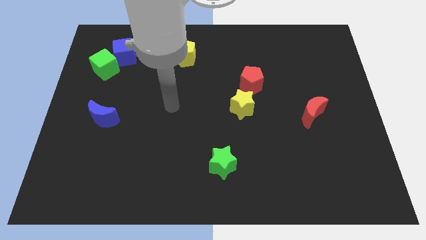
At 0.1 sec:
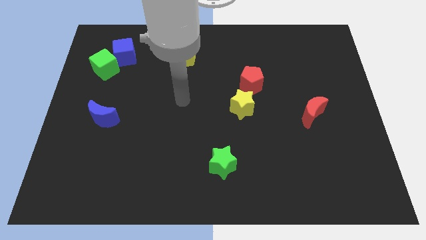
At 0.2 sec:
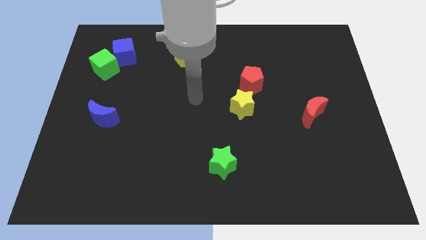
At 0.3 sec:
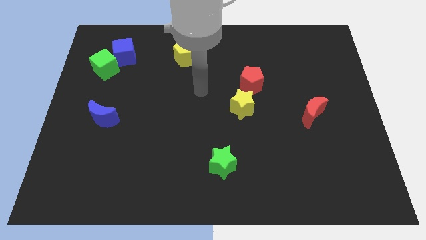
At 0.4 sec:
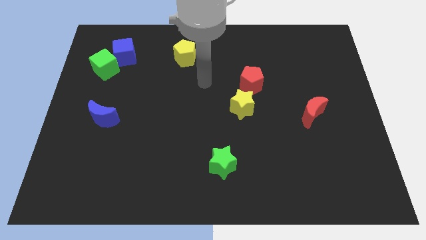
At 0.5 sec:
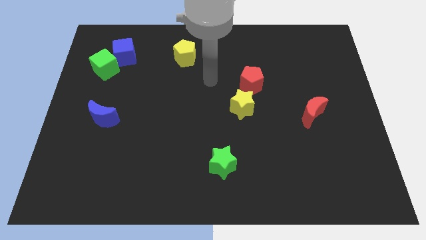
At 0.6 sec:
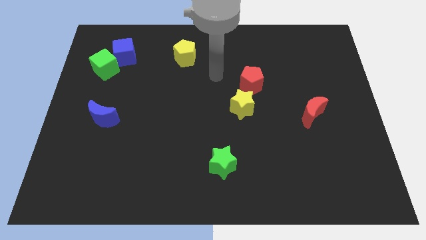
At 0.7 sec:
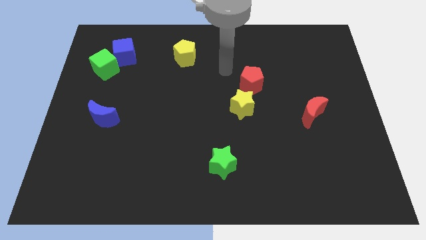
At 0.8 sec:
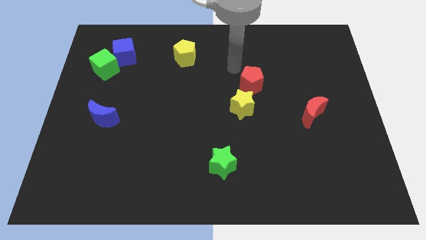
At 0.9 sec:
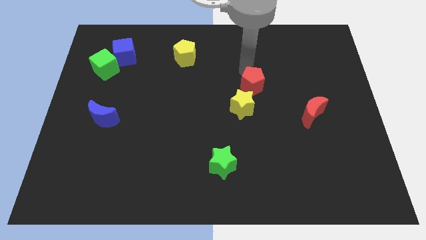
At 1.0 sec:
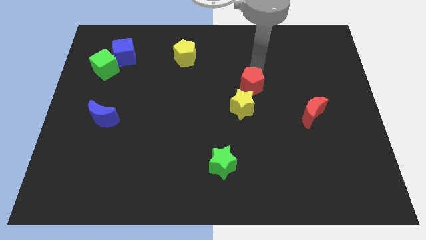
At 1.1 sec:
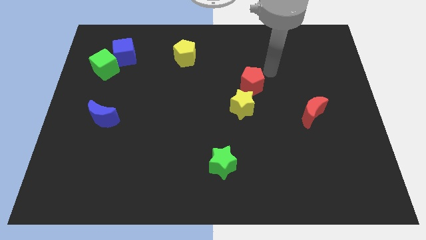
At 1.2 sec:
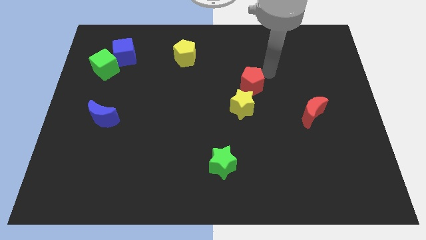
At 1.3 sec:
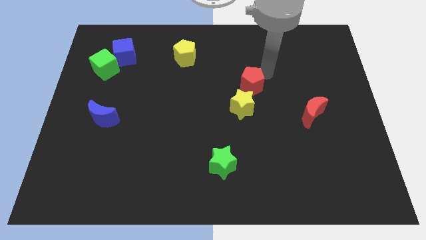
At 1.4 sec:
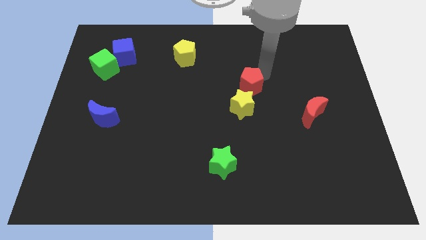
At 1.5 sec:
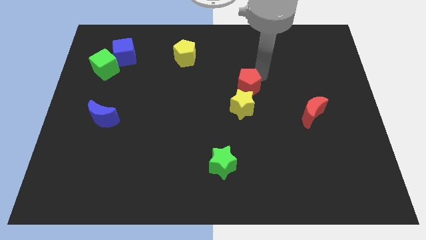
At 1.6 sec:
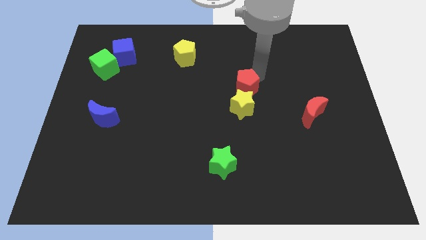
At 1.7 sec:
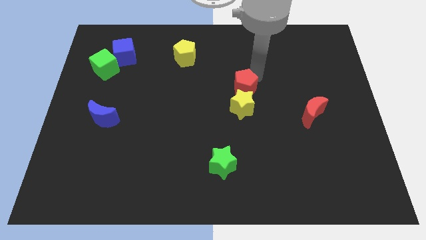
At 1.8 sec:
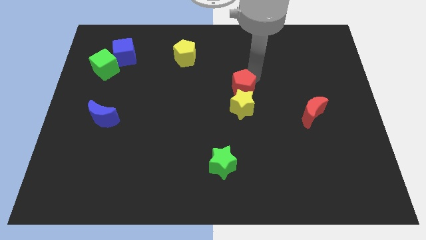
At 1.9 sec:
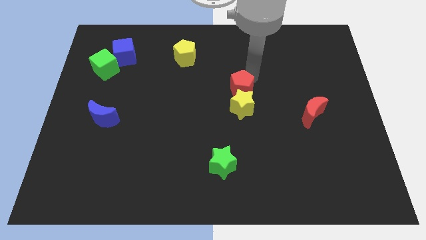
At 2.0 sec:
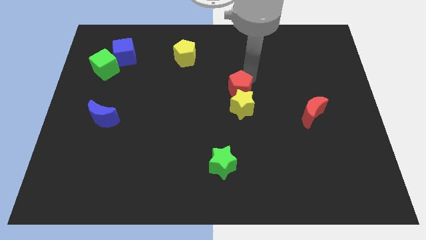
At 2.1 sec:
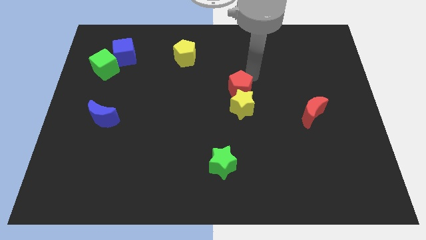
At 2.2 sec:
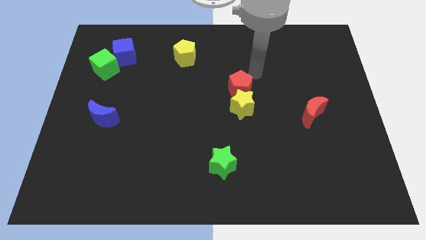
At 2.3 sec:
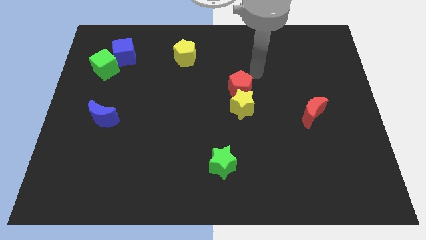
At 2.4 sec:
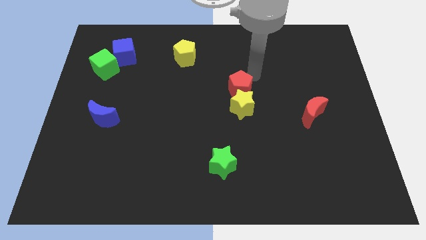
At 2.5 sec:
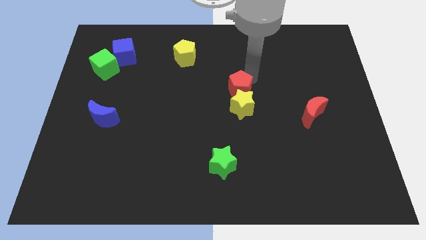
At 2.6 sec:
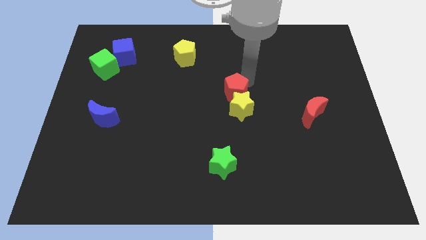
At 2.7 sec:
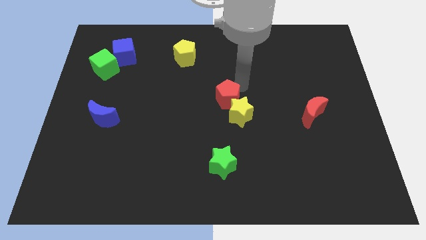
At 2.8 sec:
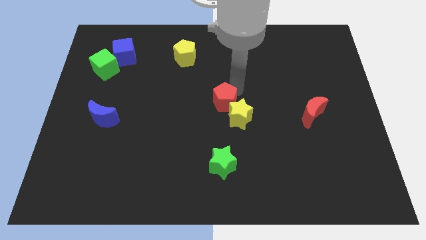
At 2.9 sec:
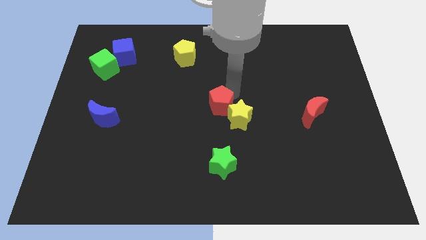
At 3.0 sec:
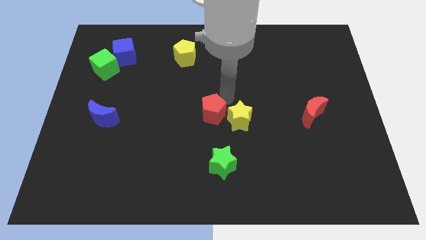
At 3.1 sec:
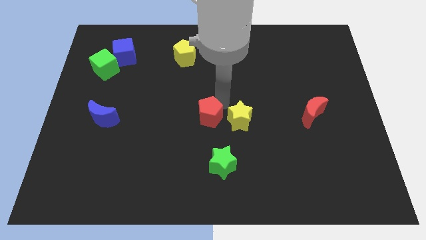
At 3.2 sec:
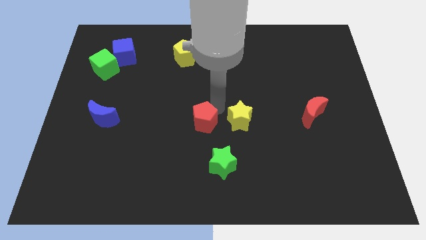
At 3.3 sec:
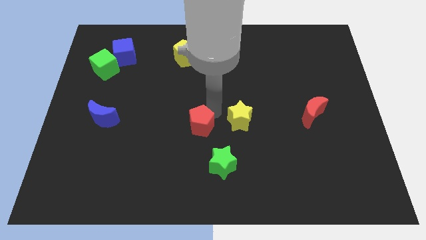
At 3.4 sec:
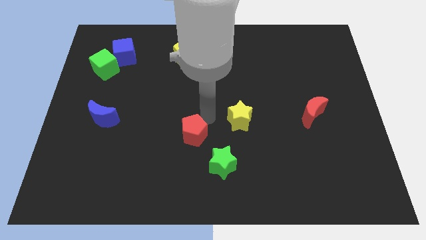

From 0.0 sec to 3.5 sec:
slide the red pentagon downwards and then left

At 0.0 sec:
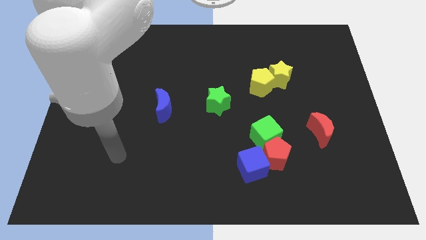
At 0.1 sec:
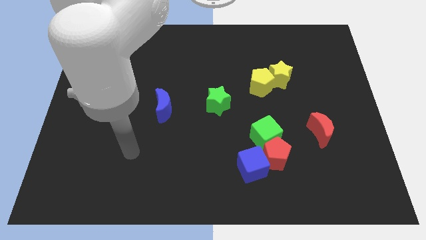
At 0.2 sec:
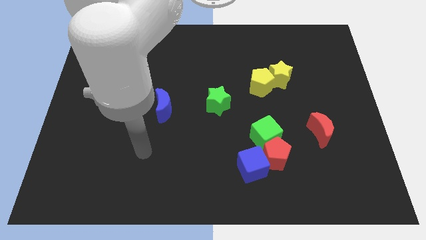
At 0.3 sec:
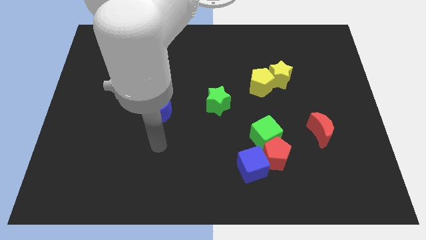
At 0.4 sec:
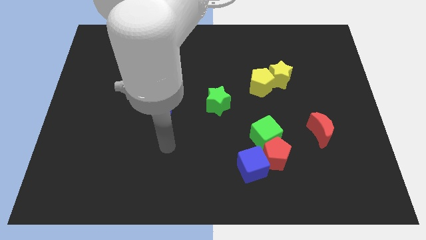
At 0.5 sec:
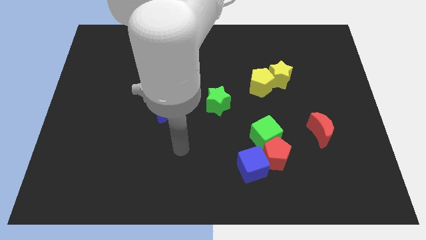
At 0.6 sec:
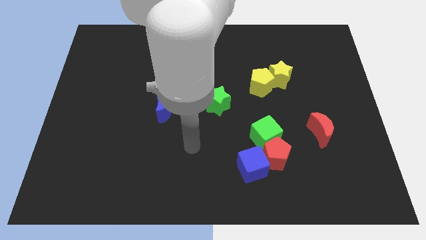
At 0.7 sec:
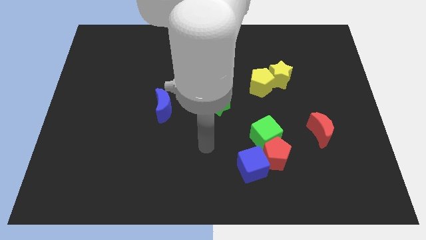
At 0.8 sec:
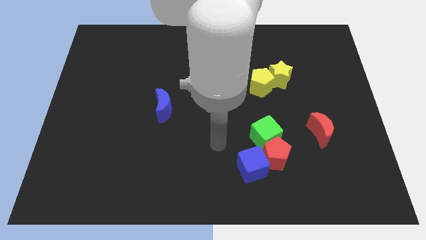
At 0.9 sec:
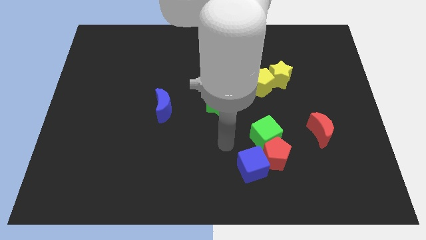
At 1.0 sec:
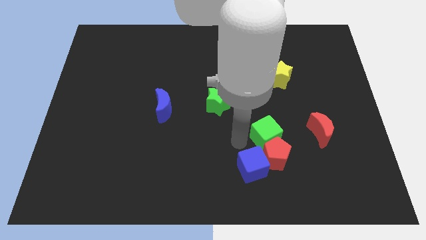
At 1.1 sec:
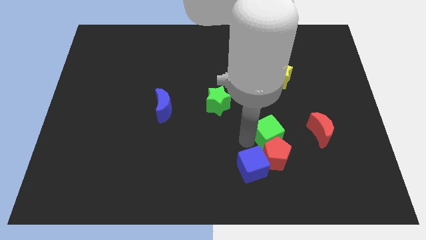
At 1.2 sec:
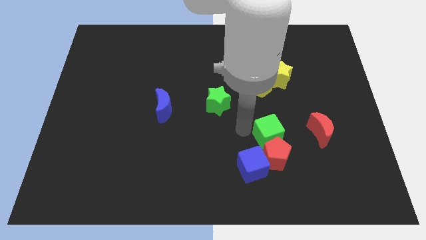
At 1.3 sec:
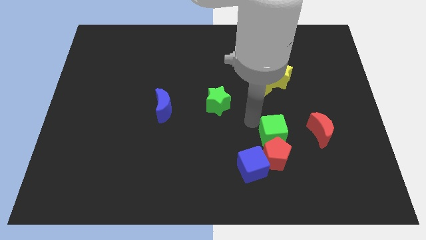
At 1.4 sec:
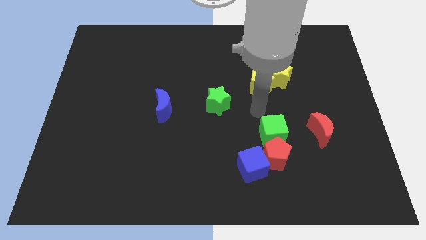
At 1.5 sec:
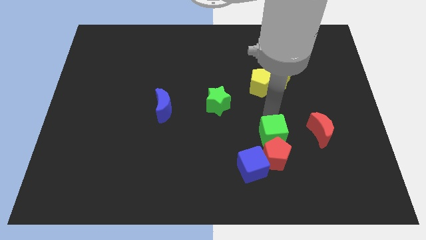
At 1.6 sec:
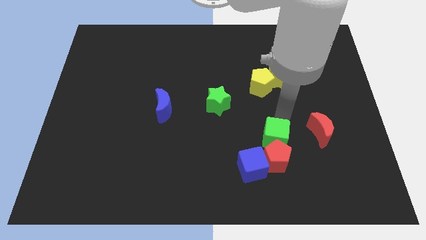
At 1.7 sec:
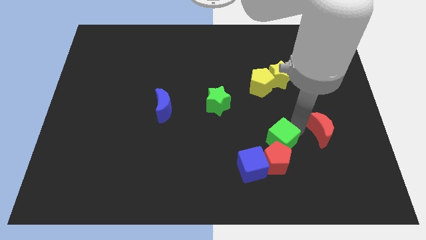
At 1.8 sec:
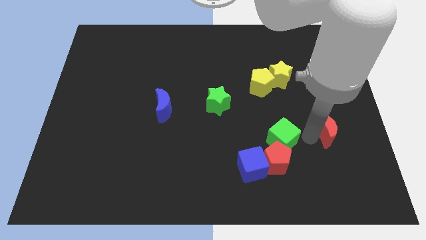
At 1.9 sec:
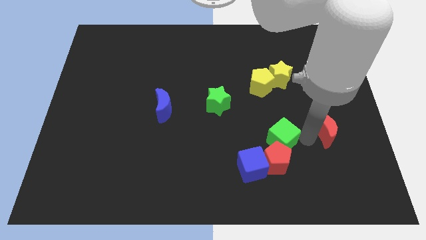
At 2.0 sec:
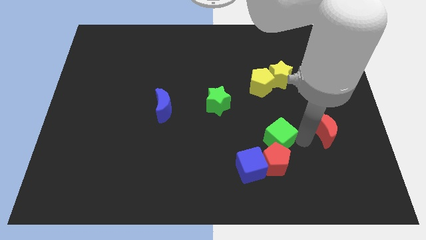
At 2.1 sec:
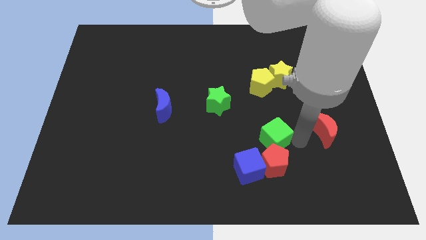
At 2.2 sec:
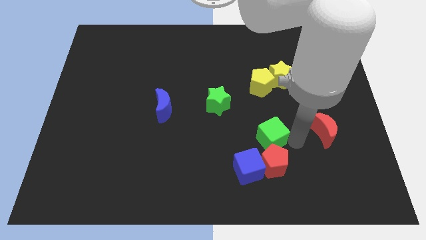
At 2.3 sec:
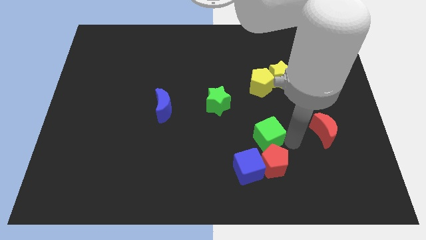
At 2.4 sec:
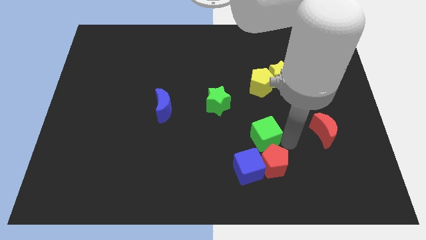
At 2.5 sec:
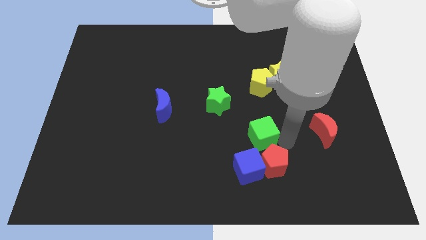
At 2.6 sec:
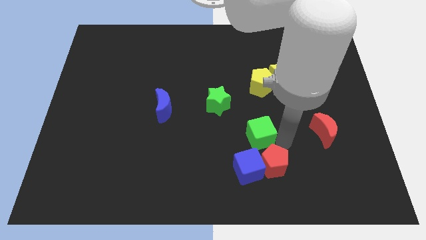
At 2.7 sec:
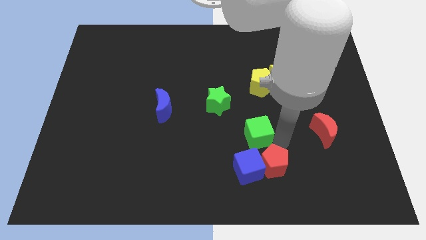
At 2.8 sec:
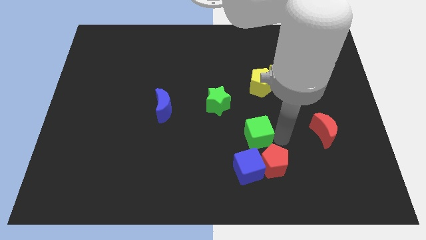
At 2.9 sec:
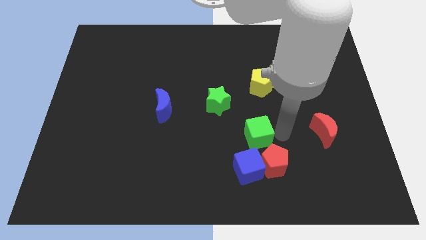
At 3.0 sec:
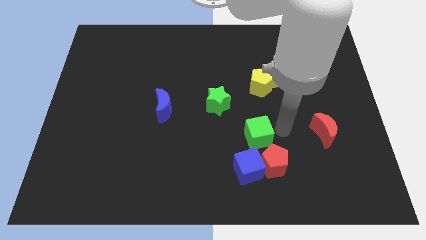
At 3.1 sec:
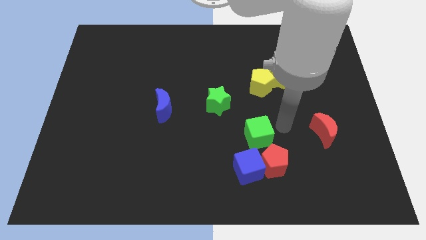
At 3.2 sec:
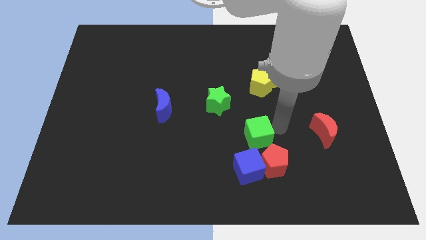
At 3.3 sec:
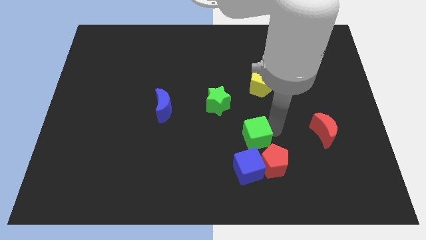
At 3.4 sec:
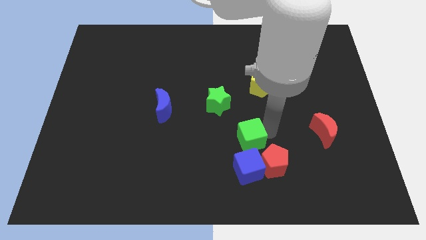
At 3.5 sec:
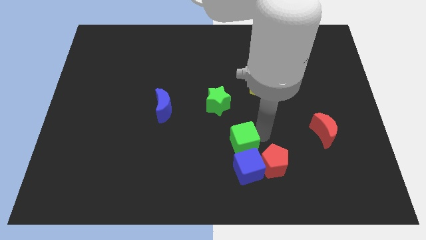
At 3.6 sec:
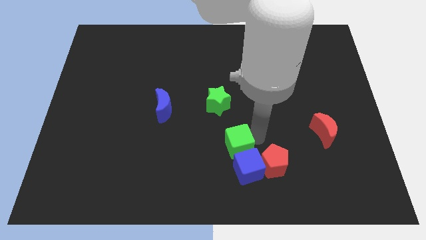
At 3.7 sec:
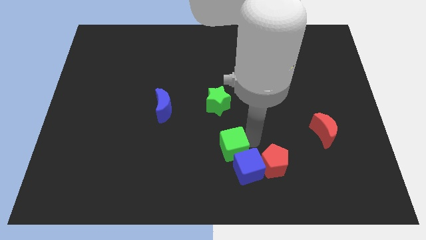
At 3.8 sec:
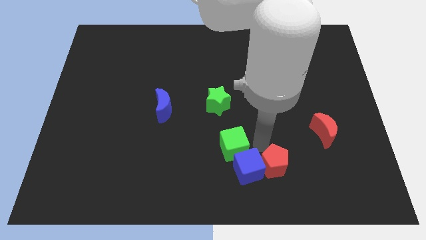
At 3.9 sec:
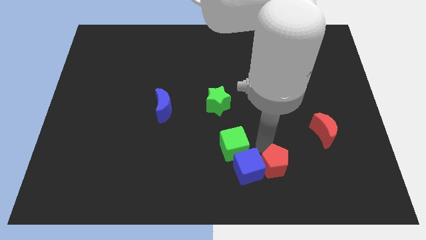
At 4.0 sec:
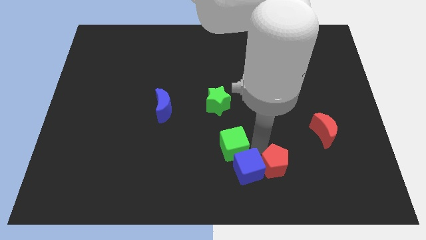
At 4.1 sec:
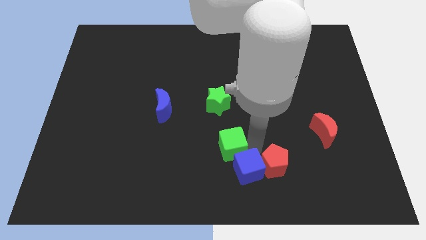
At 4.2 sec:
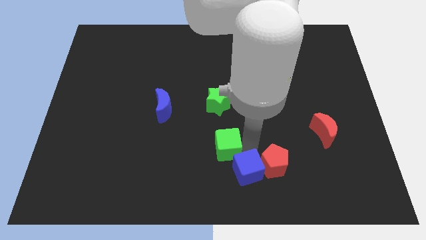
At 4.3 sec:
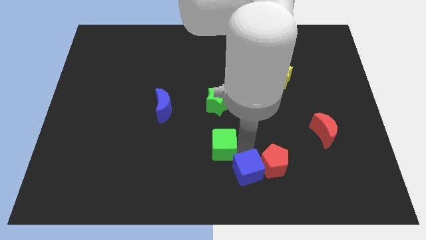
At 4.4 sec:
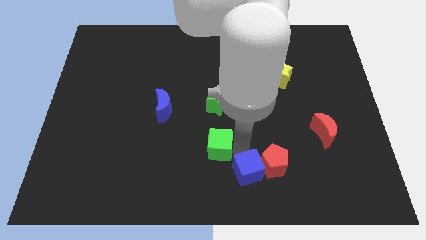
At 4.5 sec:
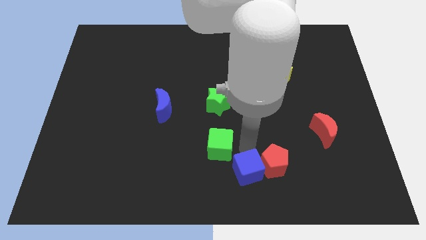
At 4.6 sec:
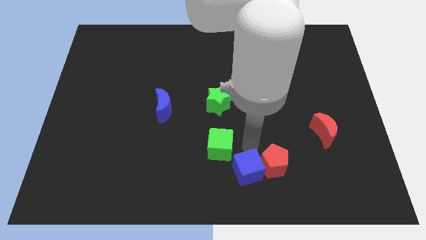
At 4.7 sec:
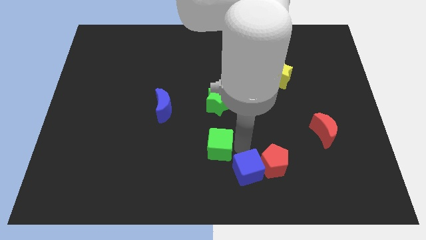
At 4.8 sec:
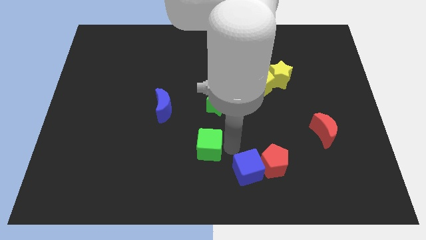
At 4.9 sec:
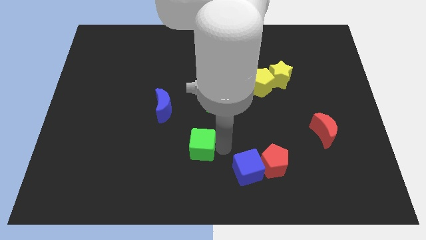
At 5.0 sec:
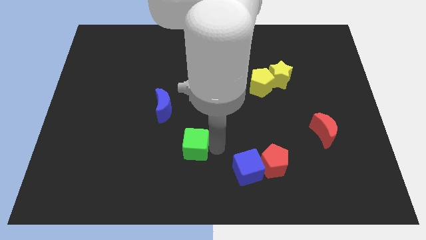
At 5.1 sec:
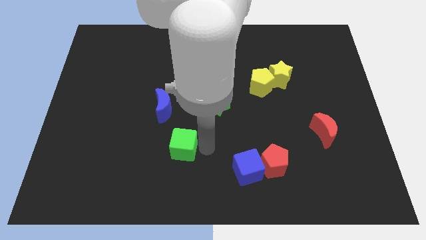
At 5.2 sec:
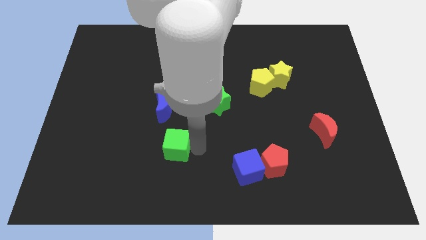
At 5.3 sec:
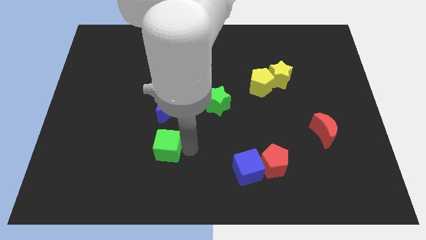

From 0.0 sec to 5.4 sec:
move the green cube to the left
